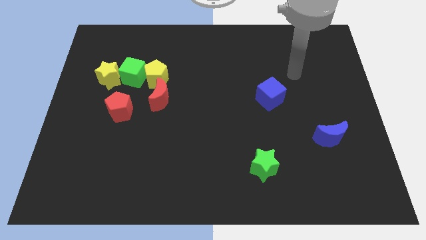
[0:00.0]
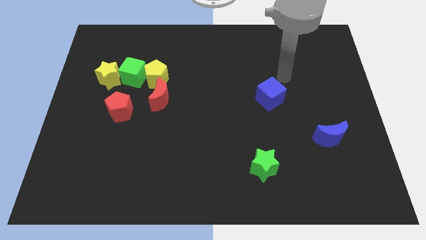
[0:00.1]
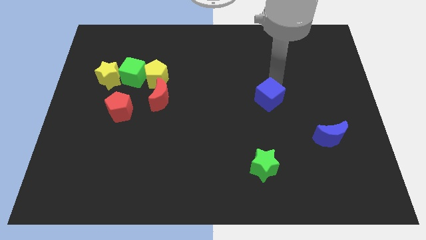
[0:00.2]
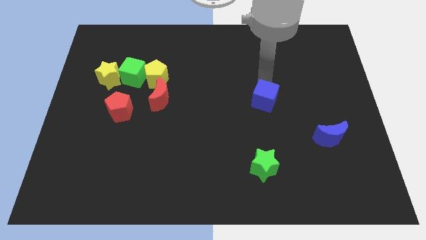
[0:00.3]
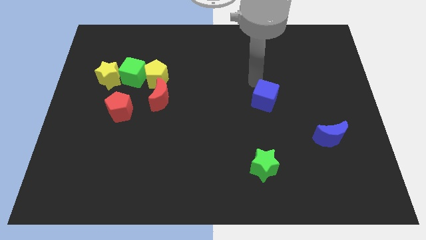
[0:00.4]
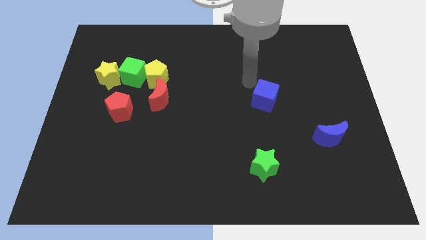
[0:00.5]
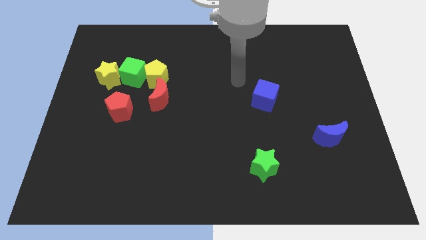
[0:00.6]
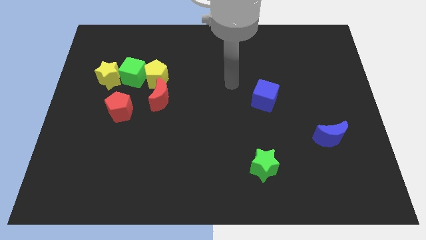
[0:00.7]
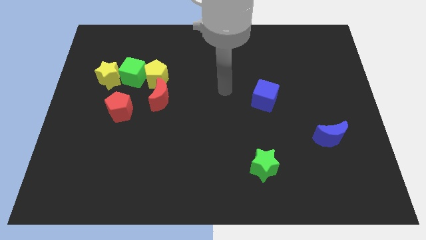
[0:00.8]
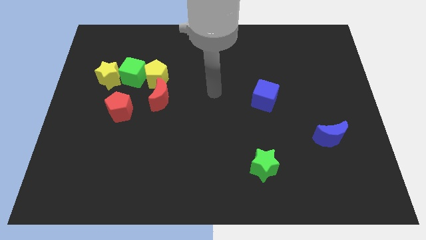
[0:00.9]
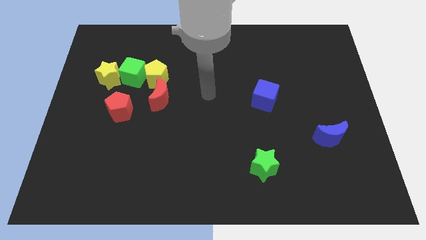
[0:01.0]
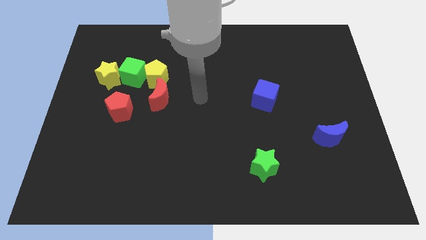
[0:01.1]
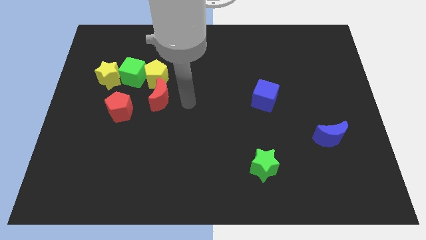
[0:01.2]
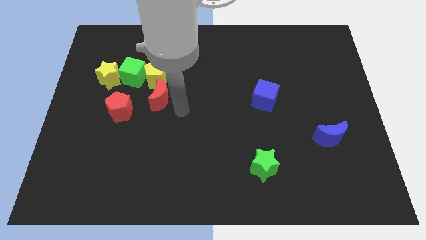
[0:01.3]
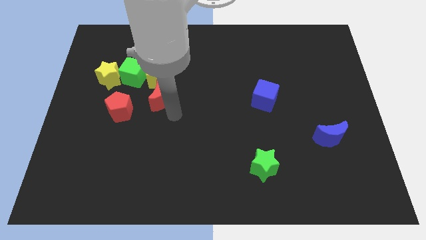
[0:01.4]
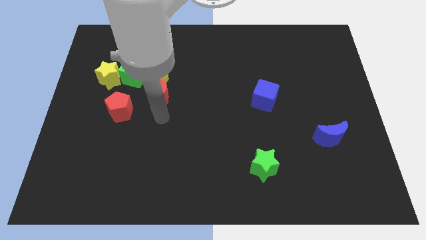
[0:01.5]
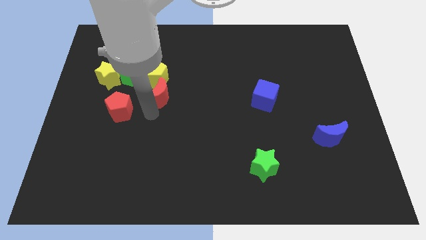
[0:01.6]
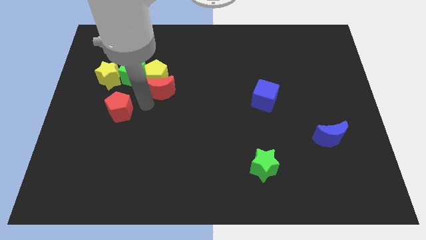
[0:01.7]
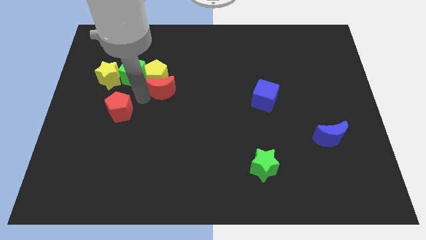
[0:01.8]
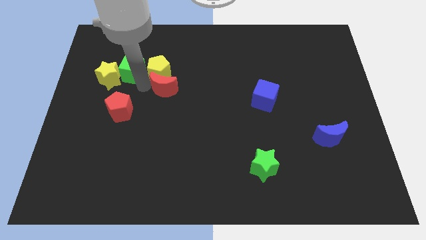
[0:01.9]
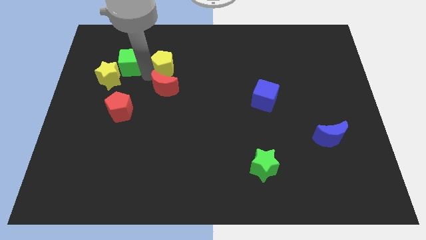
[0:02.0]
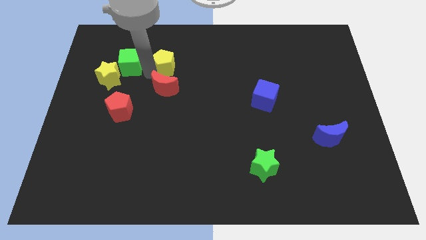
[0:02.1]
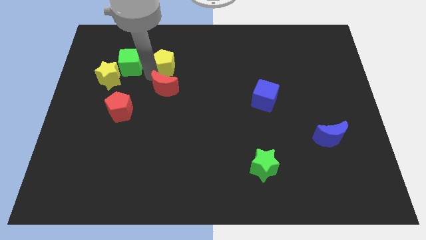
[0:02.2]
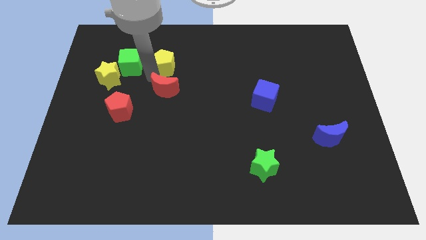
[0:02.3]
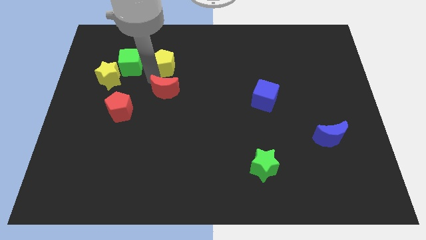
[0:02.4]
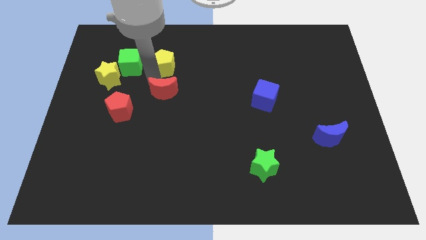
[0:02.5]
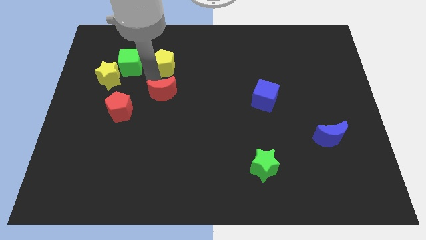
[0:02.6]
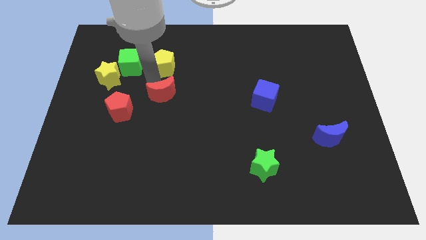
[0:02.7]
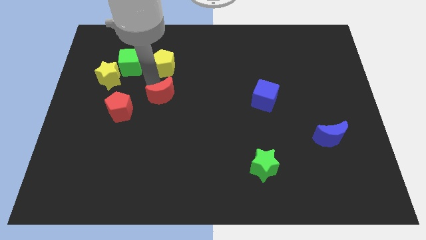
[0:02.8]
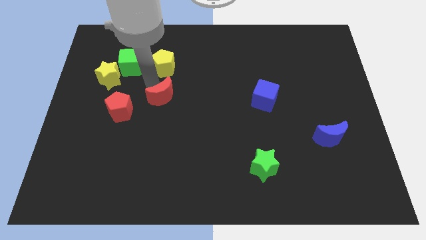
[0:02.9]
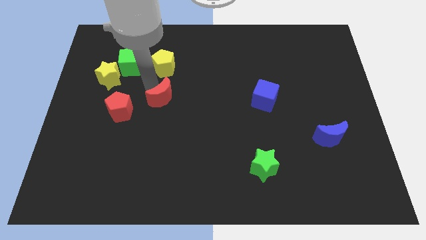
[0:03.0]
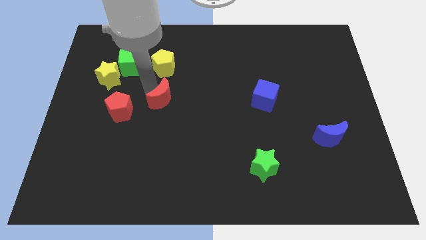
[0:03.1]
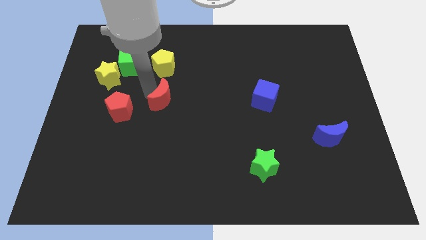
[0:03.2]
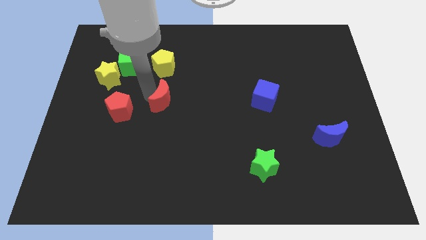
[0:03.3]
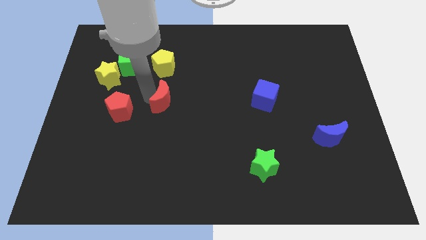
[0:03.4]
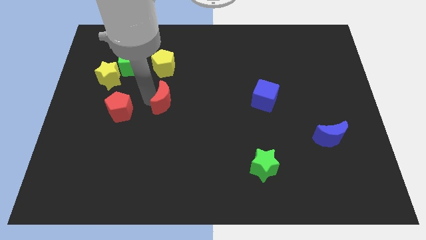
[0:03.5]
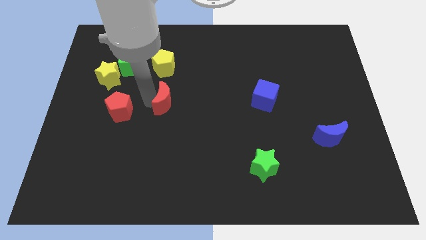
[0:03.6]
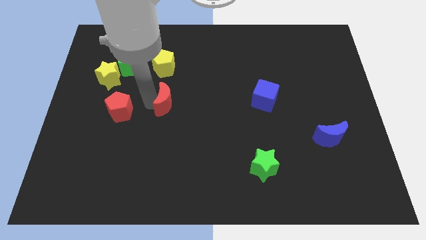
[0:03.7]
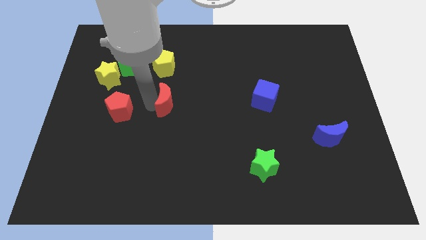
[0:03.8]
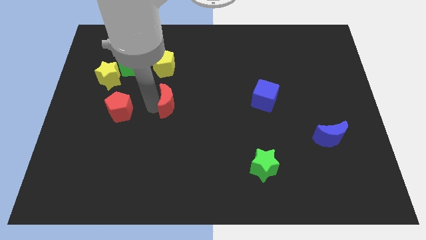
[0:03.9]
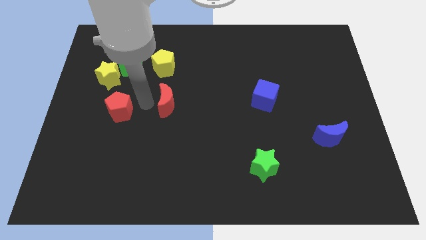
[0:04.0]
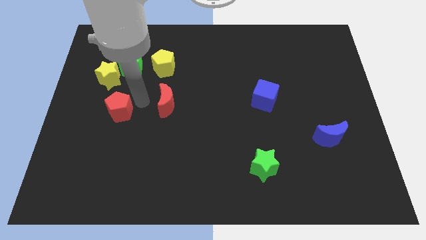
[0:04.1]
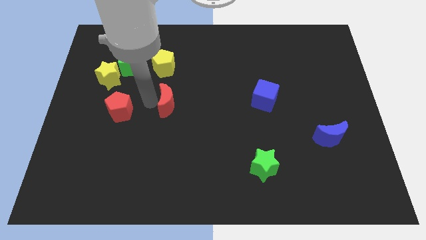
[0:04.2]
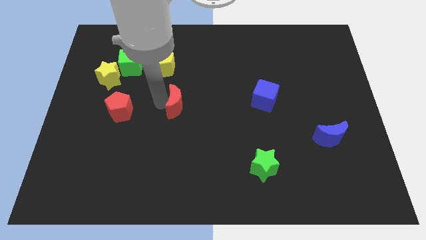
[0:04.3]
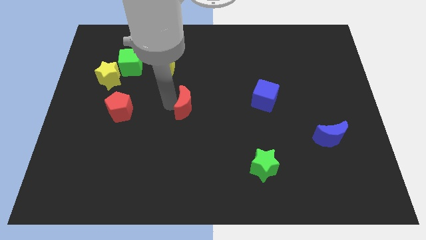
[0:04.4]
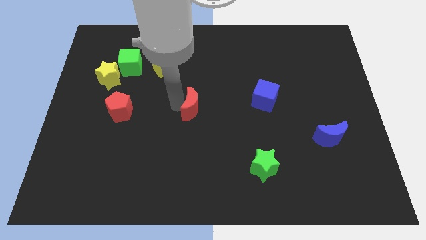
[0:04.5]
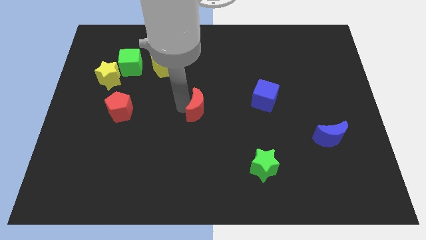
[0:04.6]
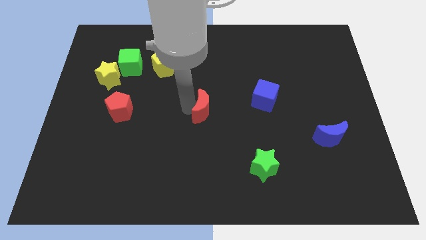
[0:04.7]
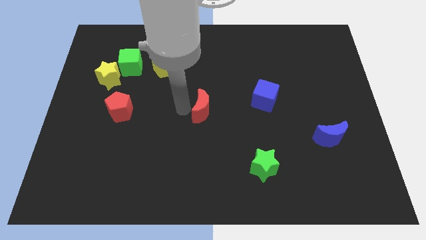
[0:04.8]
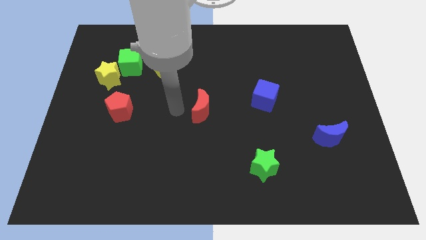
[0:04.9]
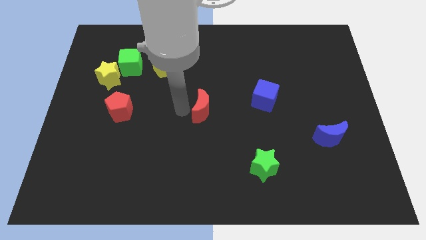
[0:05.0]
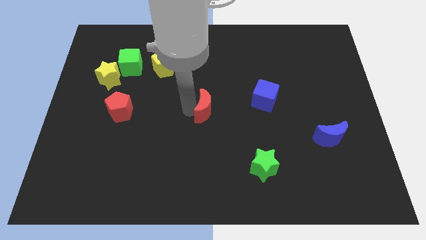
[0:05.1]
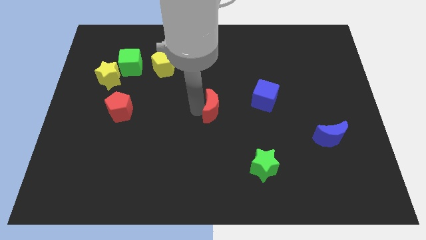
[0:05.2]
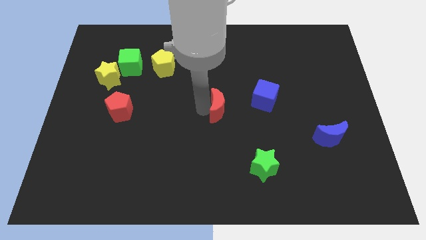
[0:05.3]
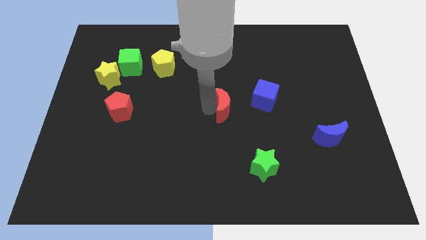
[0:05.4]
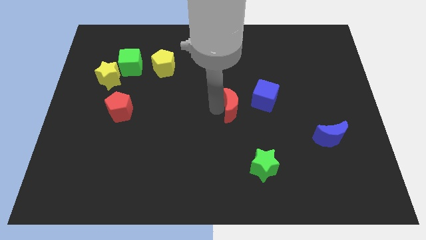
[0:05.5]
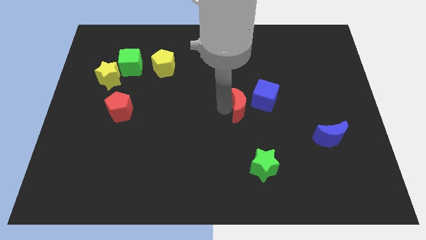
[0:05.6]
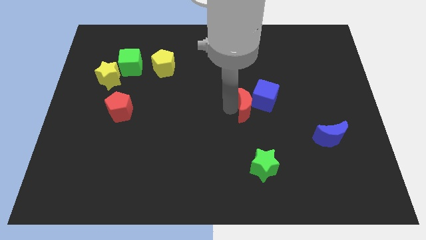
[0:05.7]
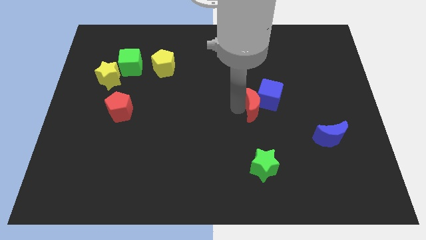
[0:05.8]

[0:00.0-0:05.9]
push the red moon right

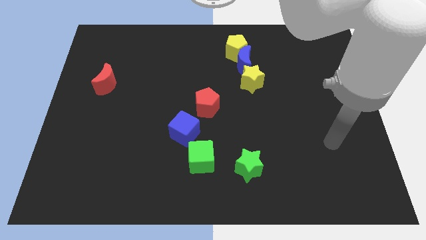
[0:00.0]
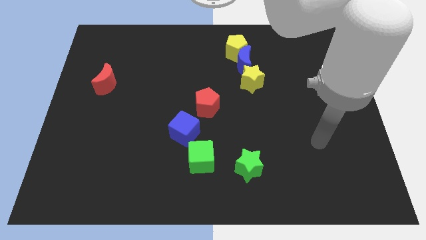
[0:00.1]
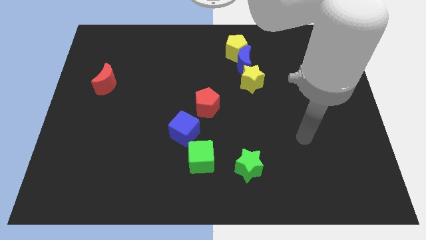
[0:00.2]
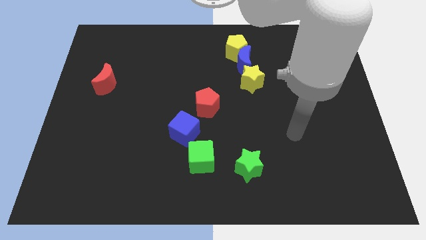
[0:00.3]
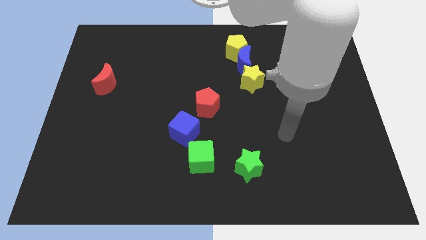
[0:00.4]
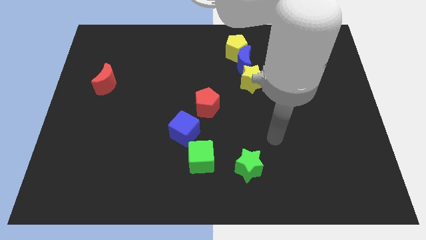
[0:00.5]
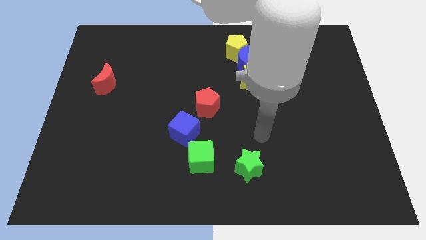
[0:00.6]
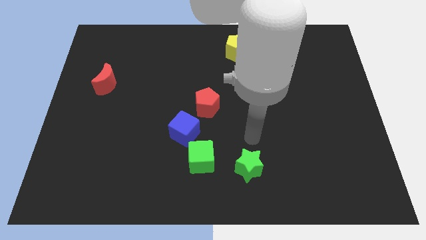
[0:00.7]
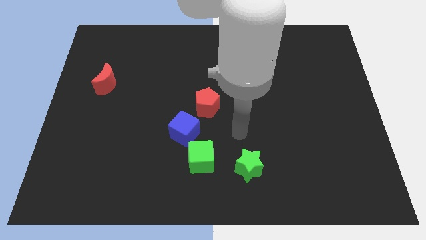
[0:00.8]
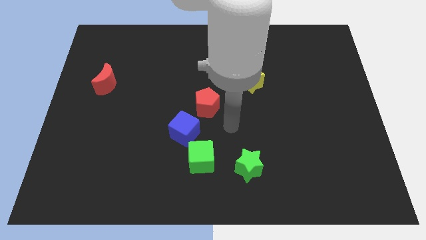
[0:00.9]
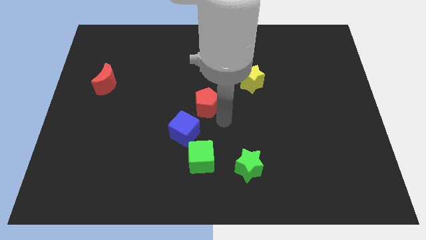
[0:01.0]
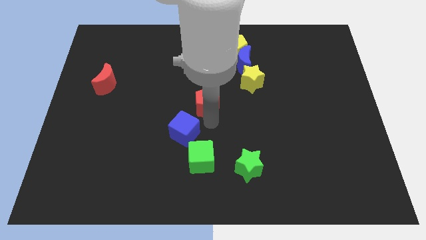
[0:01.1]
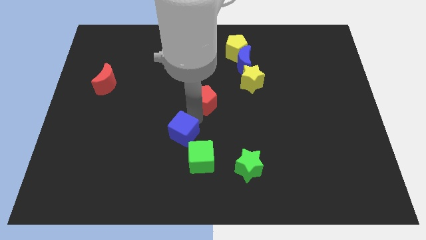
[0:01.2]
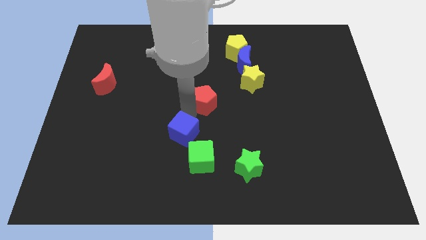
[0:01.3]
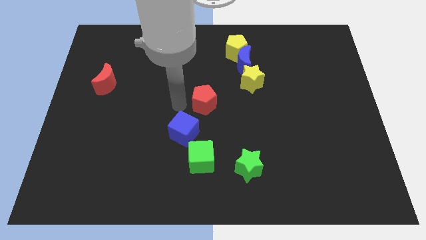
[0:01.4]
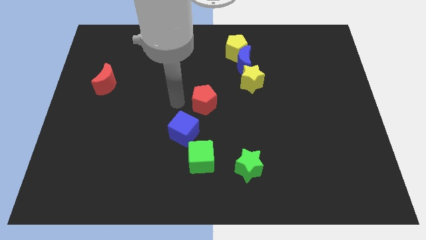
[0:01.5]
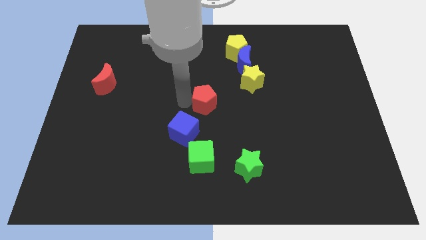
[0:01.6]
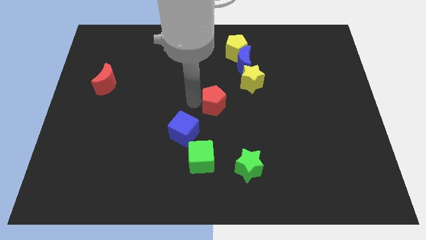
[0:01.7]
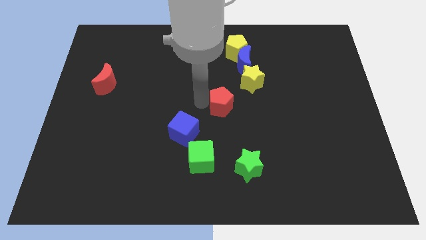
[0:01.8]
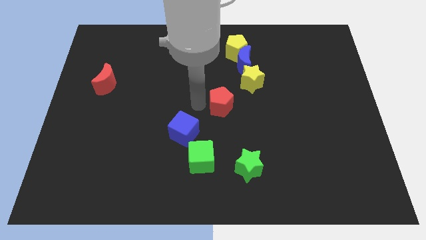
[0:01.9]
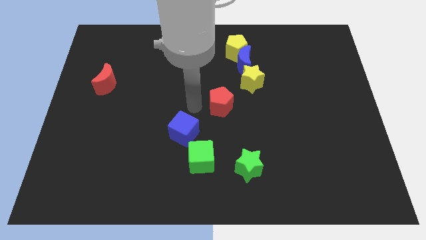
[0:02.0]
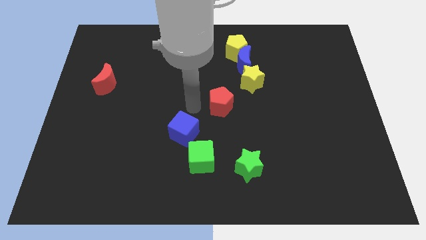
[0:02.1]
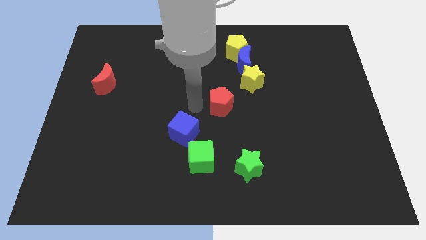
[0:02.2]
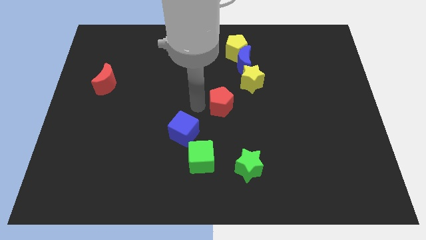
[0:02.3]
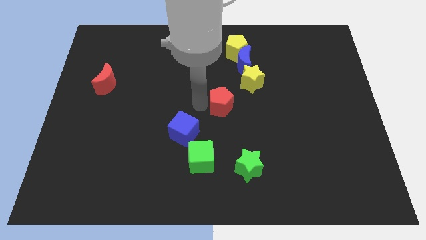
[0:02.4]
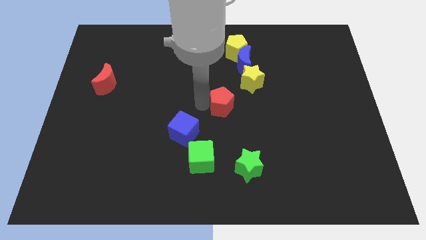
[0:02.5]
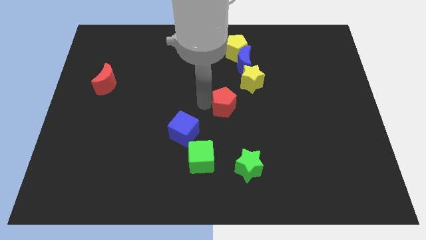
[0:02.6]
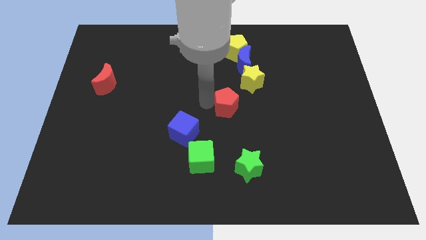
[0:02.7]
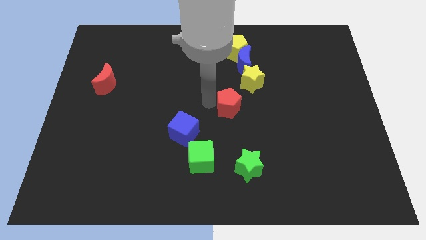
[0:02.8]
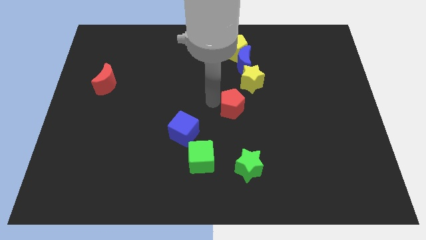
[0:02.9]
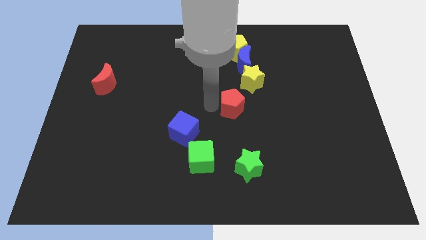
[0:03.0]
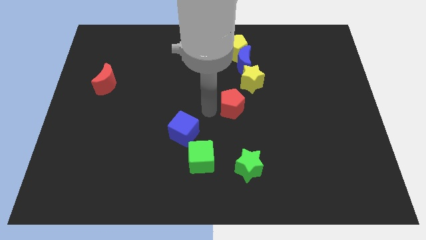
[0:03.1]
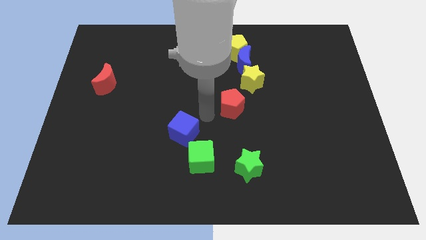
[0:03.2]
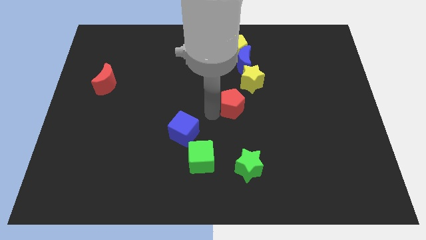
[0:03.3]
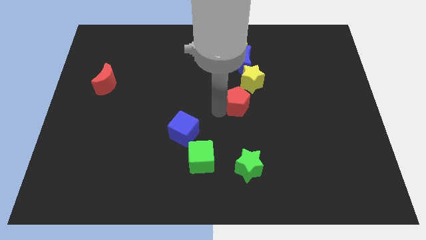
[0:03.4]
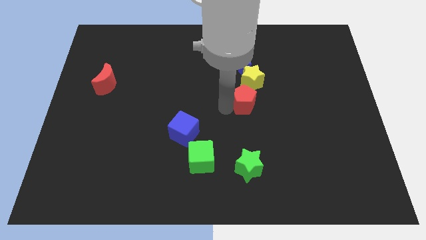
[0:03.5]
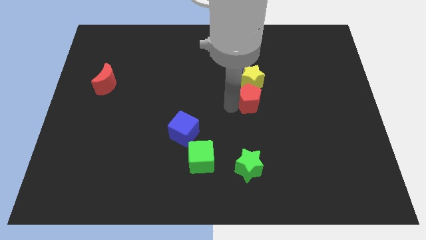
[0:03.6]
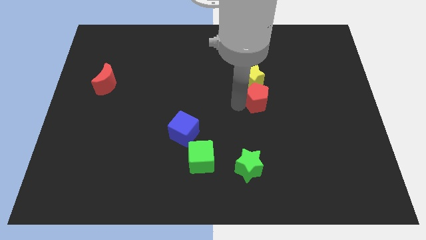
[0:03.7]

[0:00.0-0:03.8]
slightly move the red pentagon upwards and to the right diagonally
